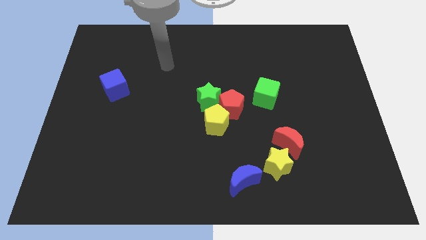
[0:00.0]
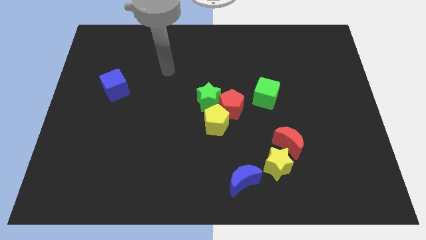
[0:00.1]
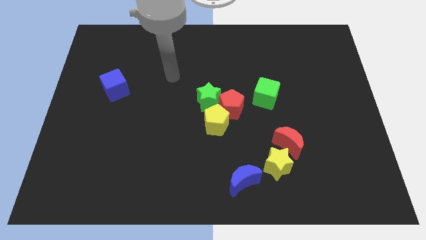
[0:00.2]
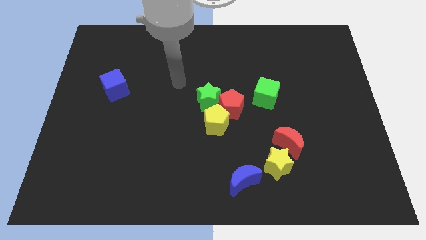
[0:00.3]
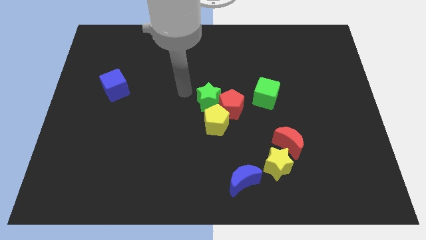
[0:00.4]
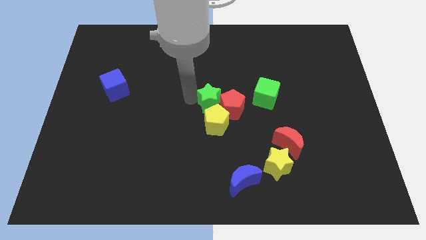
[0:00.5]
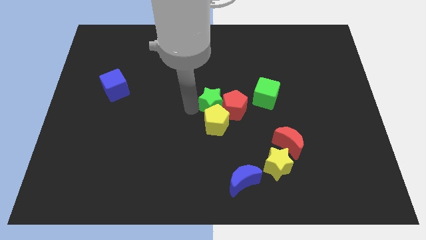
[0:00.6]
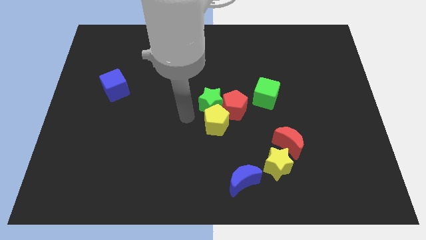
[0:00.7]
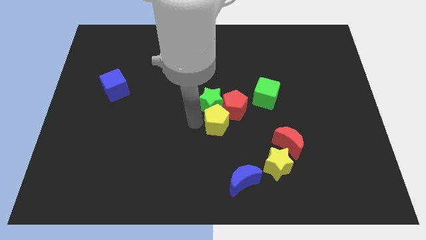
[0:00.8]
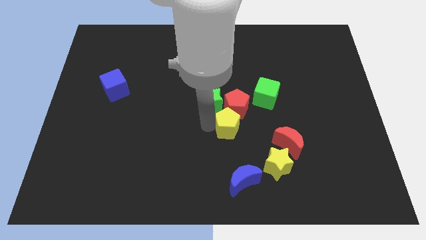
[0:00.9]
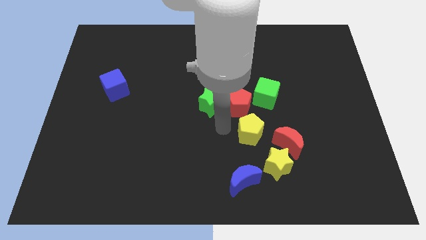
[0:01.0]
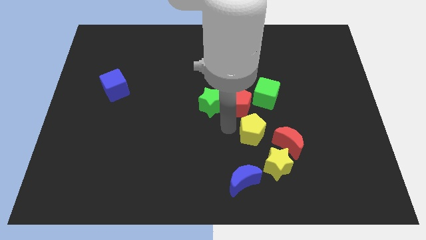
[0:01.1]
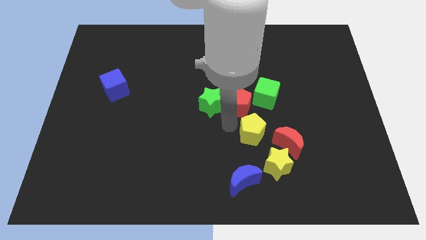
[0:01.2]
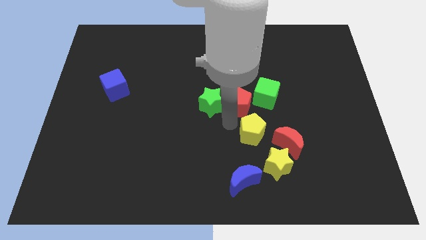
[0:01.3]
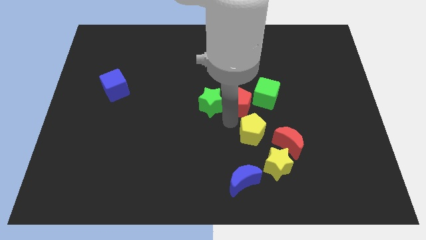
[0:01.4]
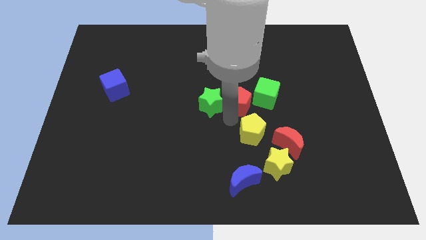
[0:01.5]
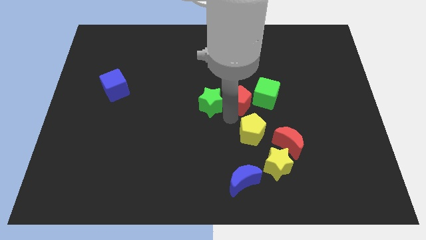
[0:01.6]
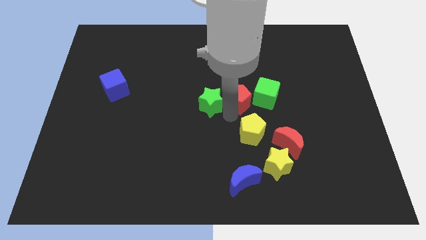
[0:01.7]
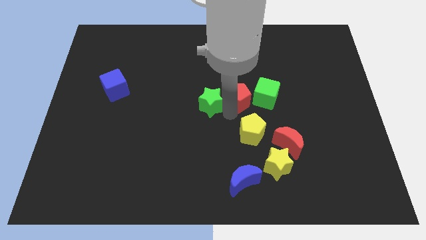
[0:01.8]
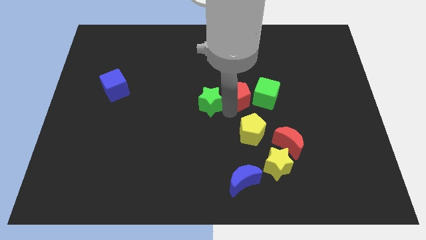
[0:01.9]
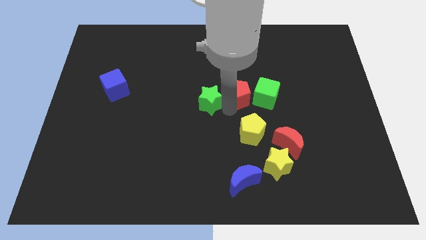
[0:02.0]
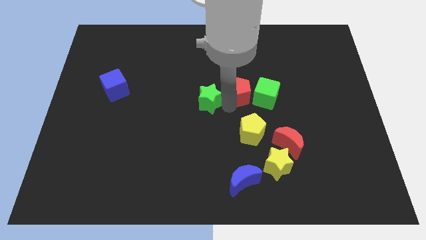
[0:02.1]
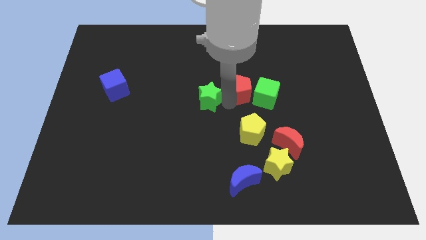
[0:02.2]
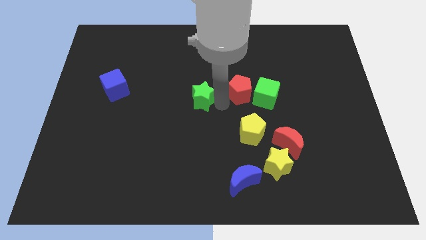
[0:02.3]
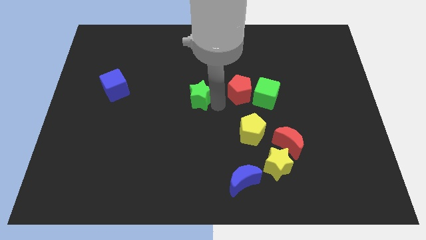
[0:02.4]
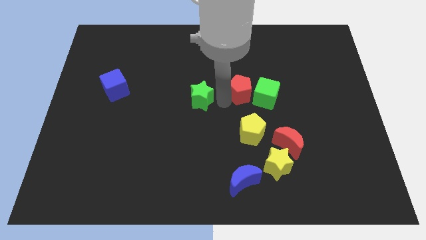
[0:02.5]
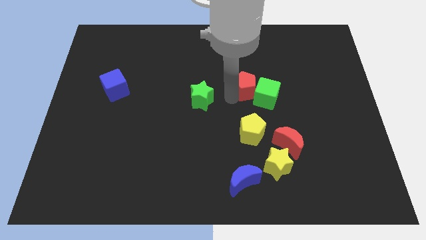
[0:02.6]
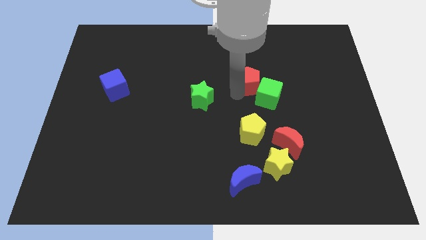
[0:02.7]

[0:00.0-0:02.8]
slightly slide the red pentagon upwards and right

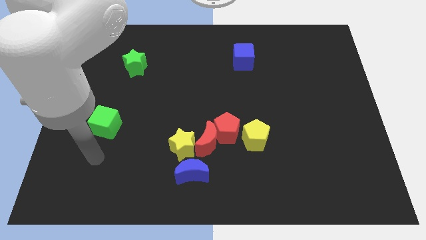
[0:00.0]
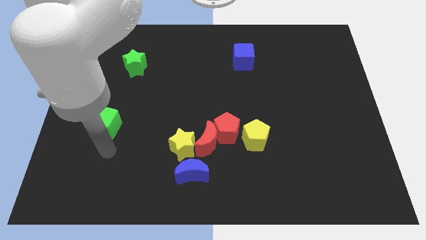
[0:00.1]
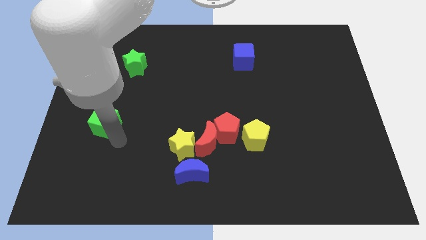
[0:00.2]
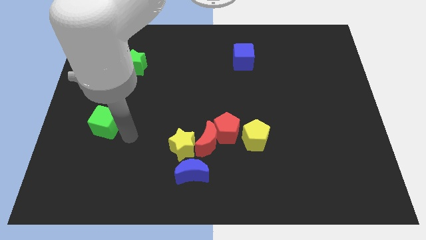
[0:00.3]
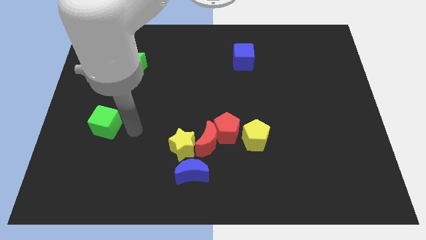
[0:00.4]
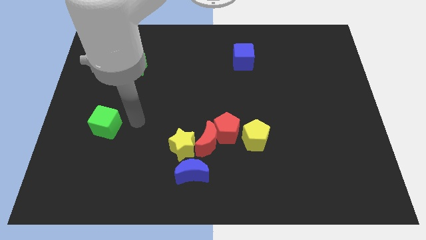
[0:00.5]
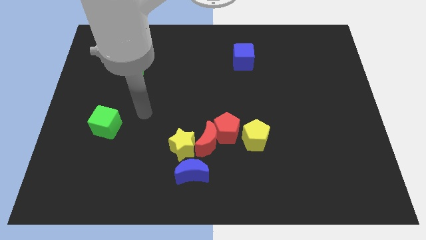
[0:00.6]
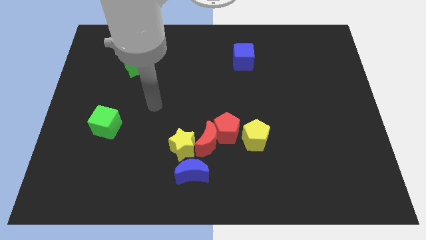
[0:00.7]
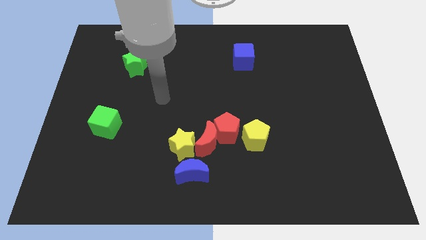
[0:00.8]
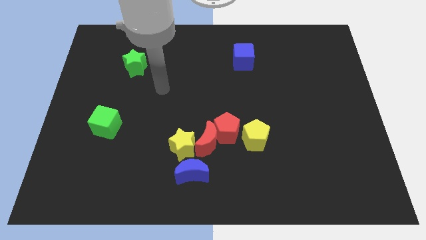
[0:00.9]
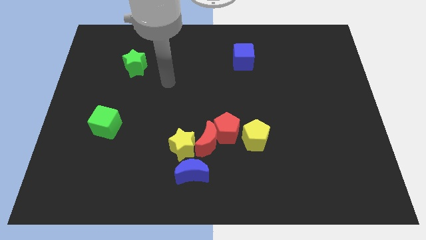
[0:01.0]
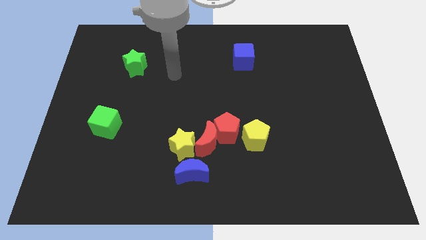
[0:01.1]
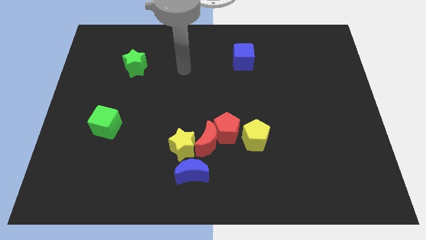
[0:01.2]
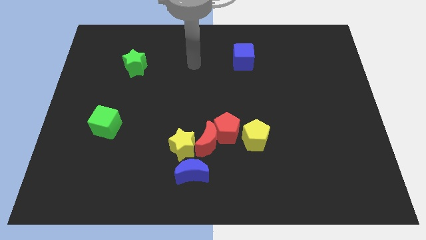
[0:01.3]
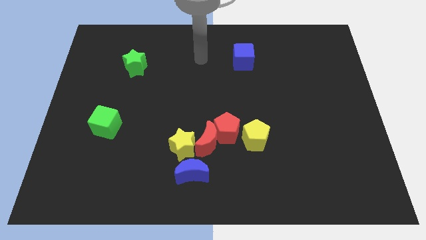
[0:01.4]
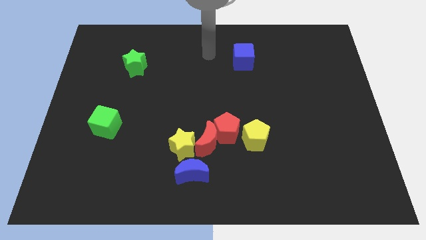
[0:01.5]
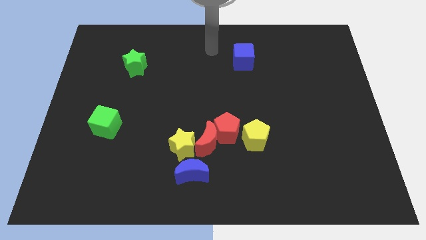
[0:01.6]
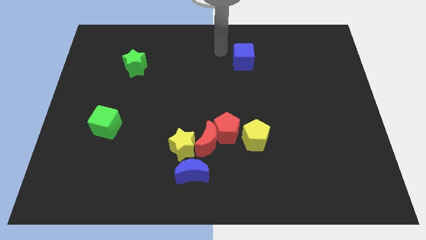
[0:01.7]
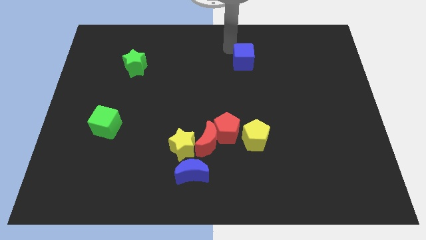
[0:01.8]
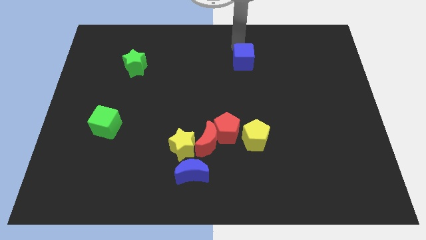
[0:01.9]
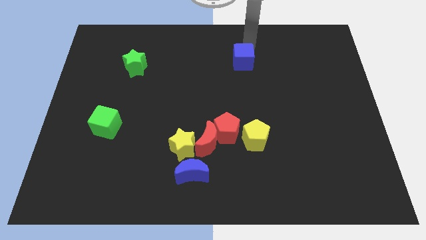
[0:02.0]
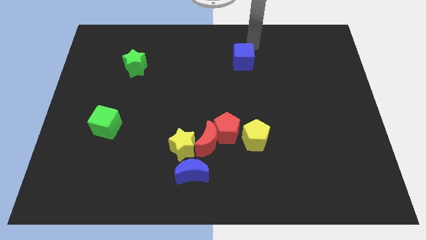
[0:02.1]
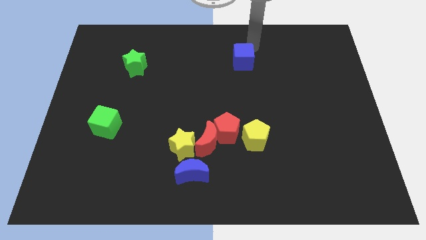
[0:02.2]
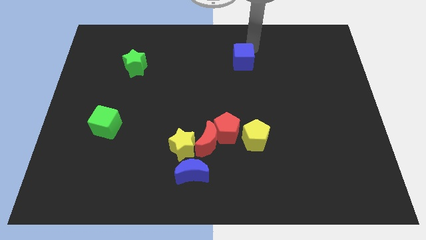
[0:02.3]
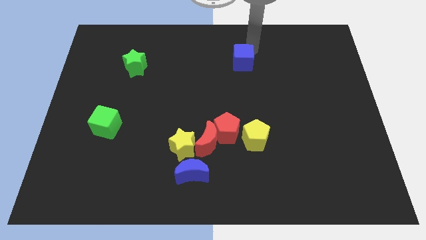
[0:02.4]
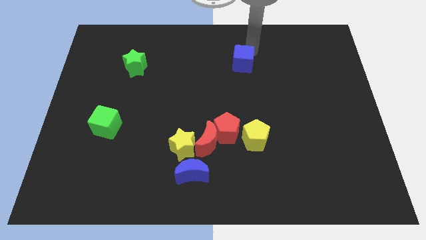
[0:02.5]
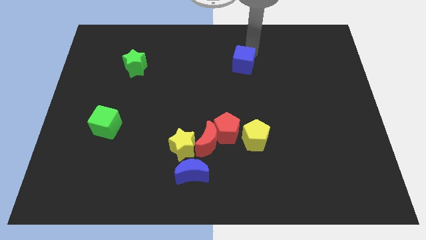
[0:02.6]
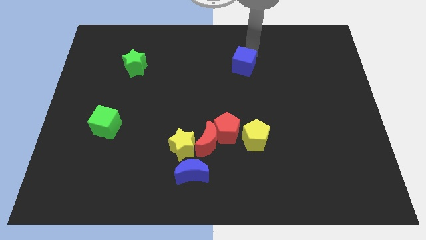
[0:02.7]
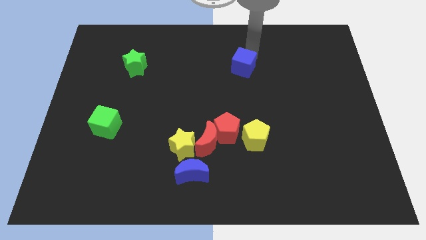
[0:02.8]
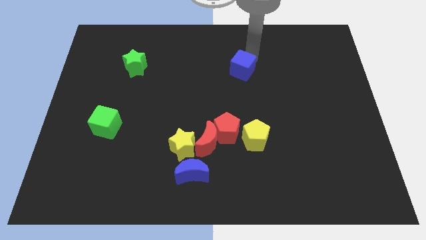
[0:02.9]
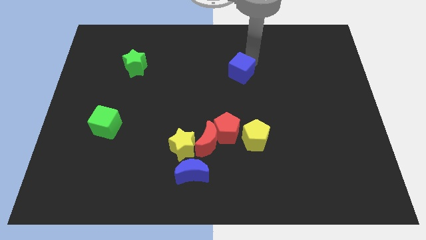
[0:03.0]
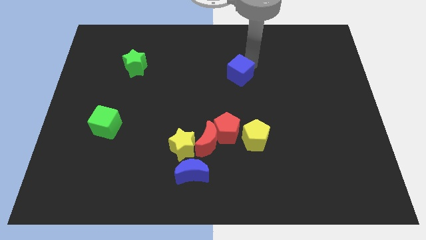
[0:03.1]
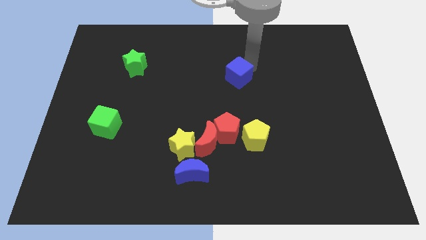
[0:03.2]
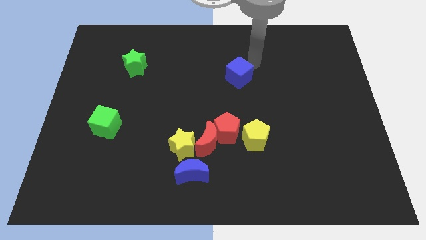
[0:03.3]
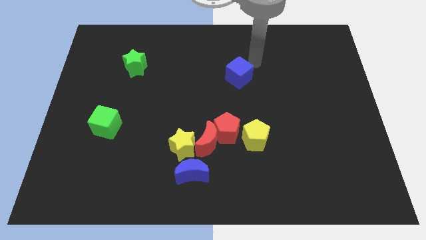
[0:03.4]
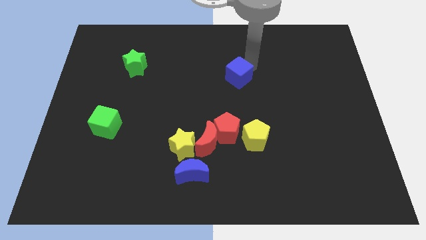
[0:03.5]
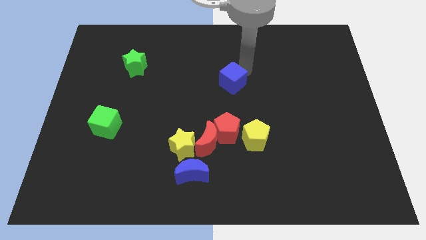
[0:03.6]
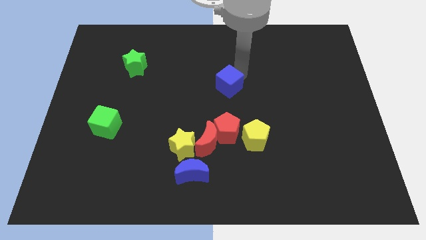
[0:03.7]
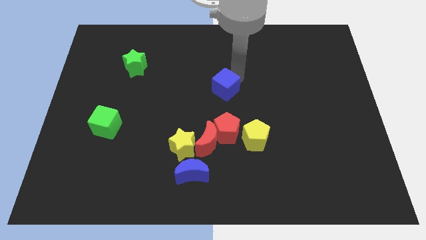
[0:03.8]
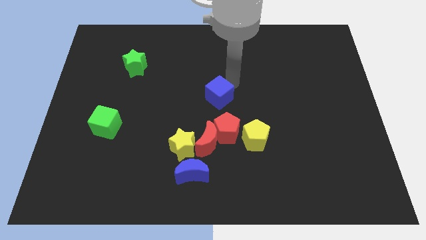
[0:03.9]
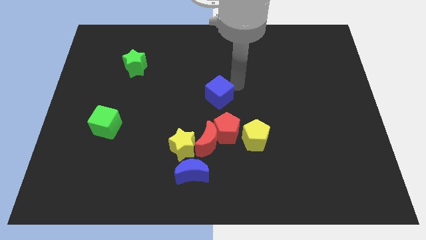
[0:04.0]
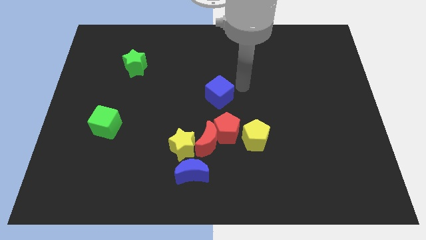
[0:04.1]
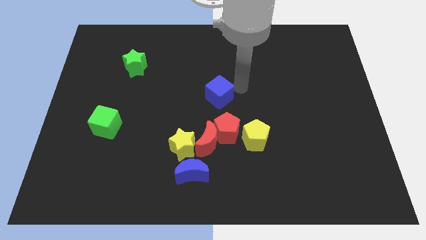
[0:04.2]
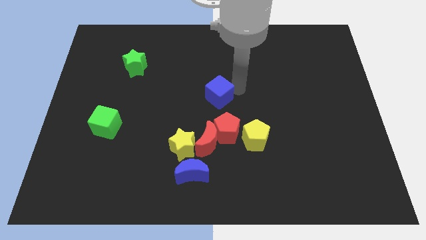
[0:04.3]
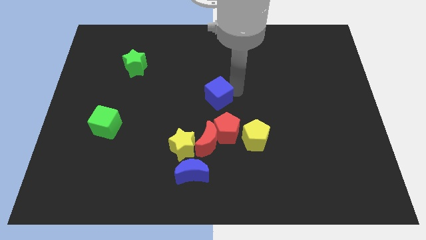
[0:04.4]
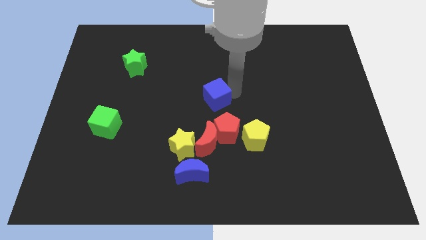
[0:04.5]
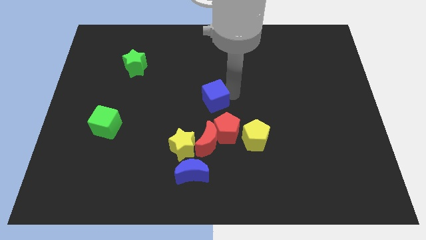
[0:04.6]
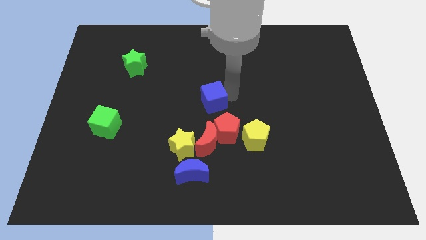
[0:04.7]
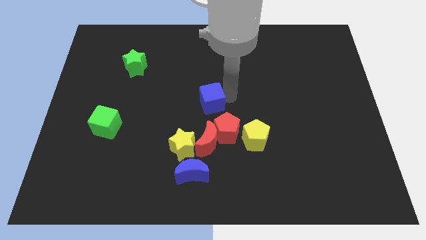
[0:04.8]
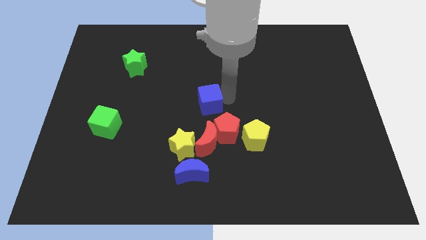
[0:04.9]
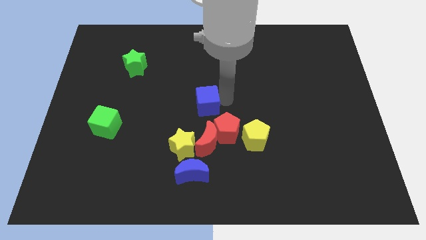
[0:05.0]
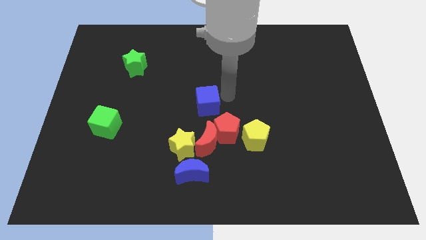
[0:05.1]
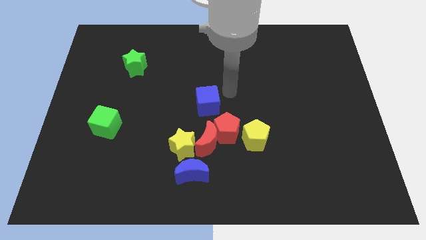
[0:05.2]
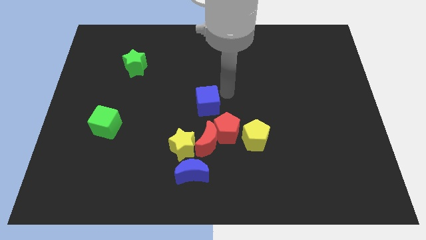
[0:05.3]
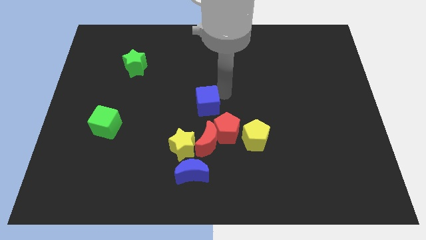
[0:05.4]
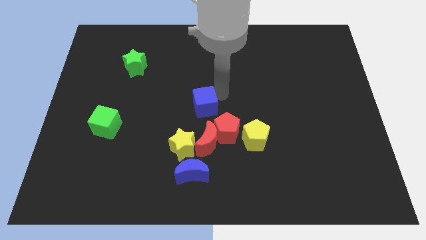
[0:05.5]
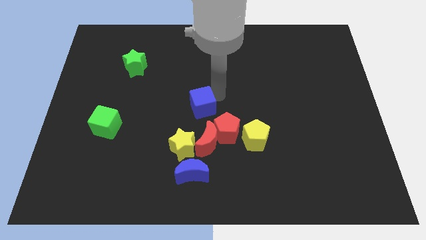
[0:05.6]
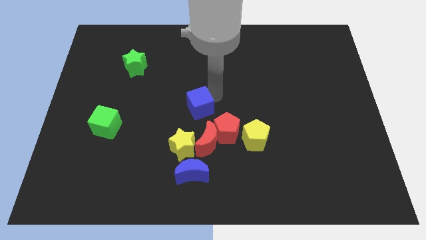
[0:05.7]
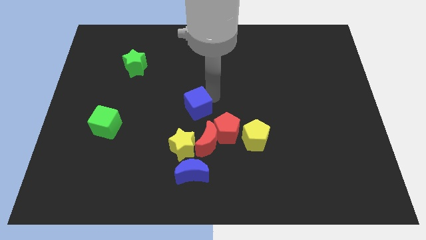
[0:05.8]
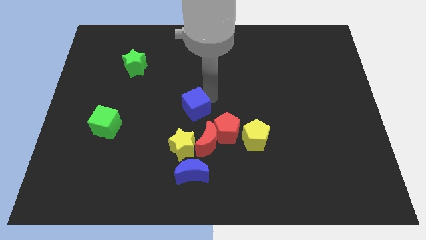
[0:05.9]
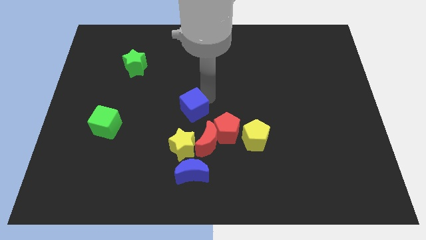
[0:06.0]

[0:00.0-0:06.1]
push the blue cube downwards and to the left
